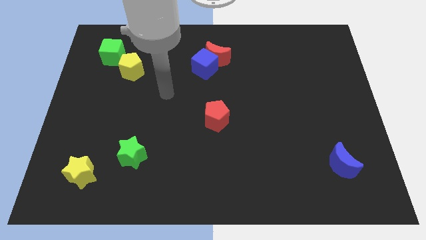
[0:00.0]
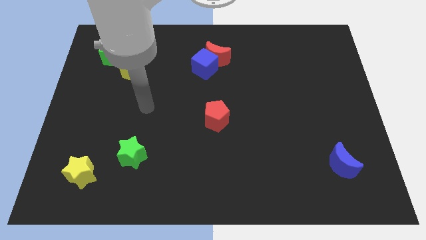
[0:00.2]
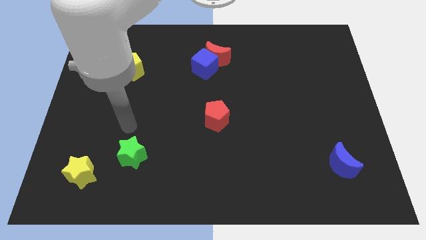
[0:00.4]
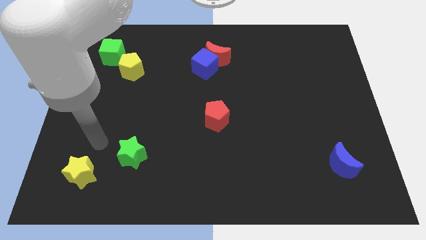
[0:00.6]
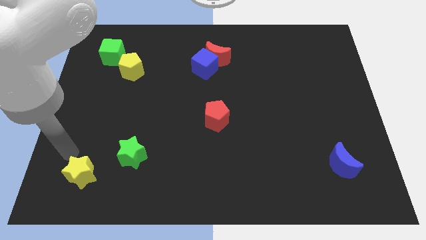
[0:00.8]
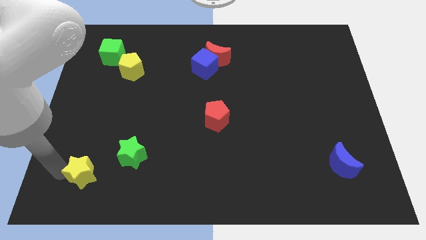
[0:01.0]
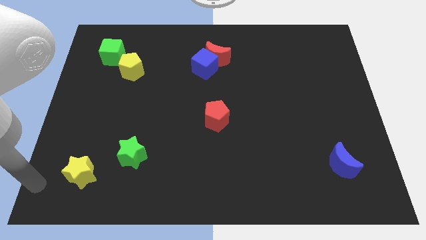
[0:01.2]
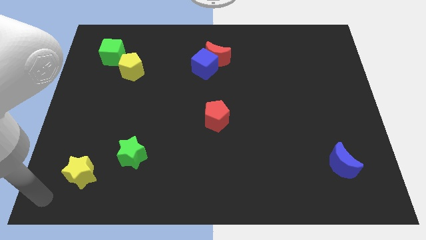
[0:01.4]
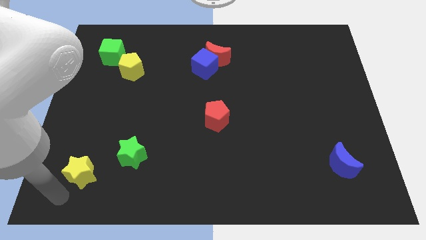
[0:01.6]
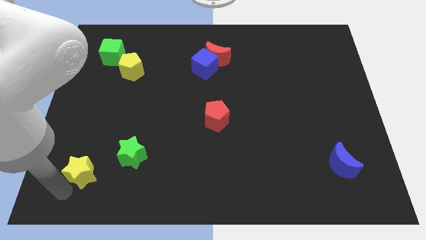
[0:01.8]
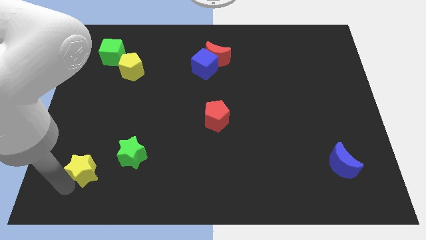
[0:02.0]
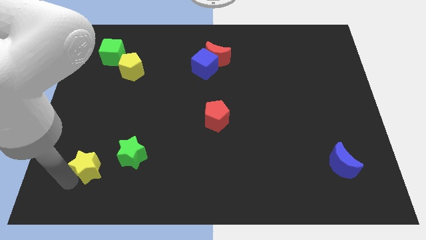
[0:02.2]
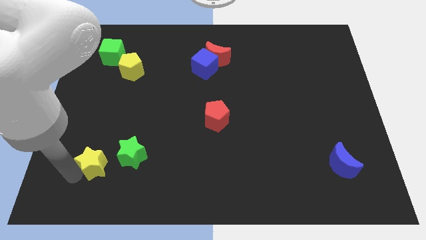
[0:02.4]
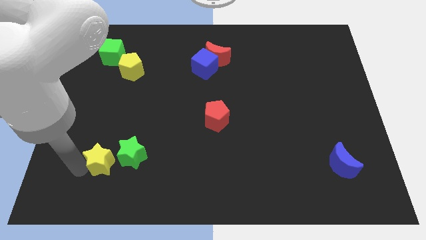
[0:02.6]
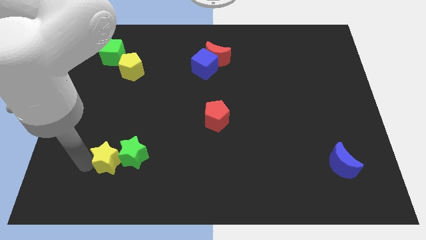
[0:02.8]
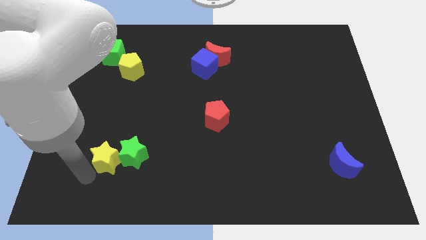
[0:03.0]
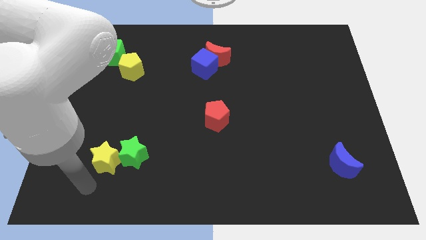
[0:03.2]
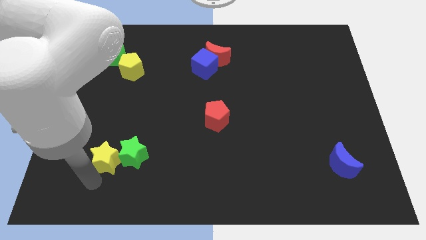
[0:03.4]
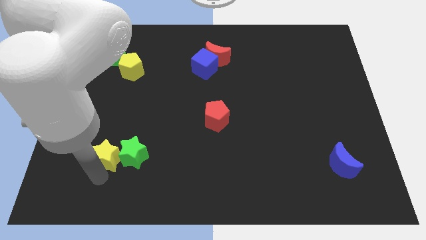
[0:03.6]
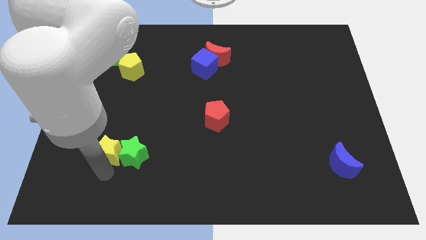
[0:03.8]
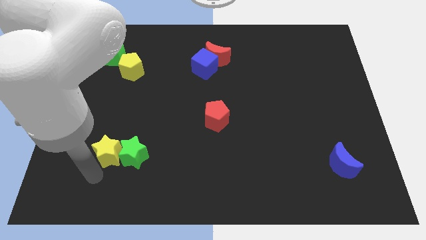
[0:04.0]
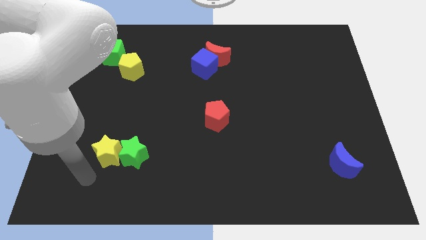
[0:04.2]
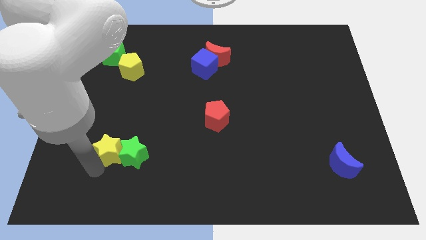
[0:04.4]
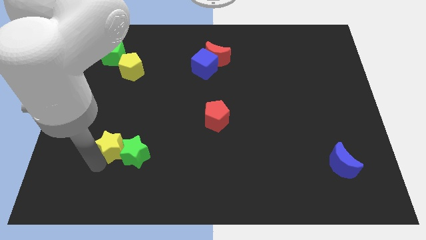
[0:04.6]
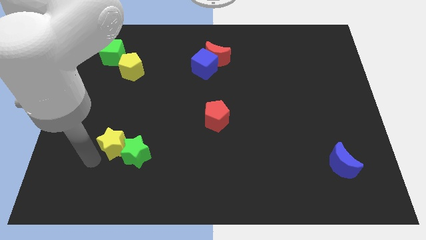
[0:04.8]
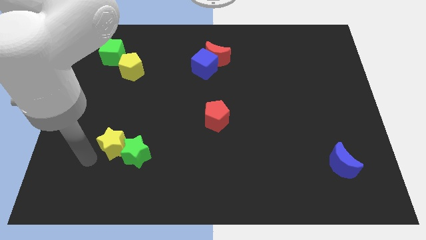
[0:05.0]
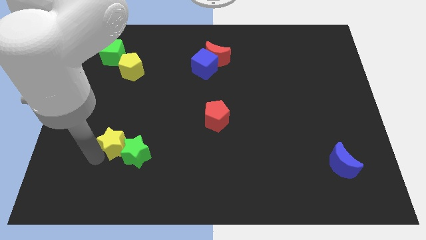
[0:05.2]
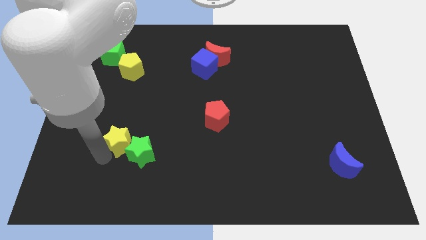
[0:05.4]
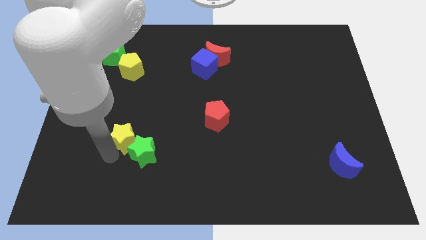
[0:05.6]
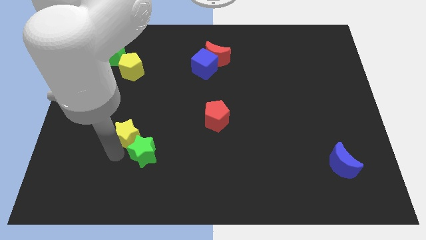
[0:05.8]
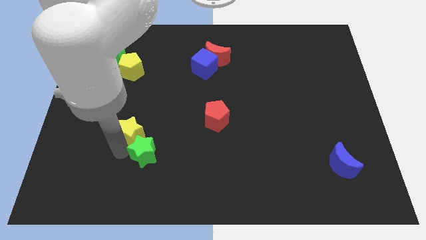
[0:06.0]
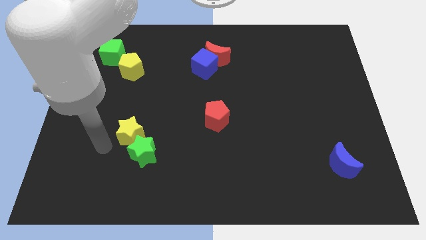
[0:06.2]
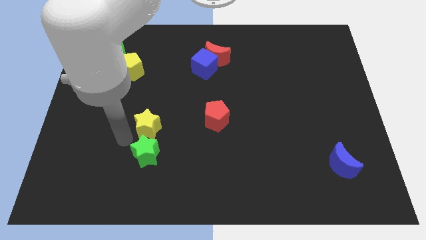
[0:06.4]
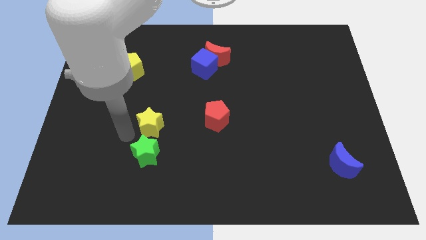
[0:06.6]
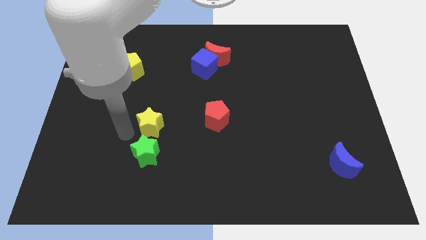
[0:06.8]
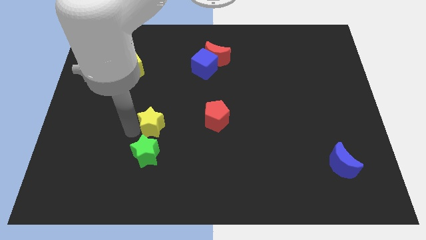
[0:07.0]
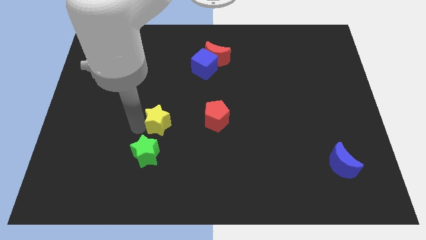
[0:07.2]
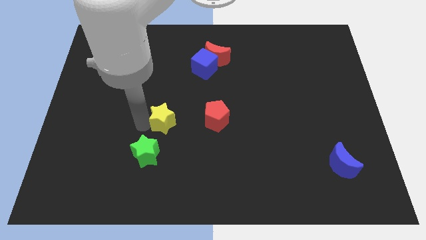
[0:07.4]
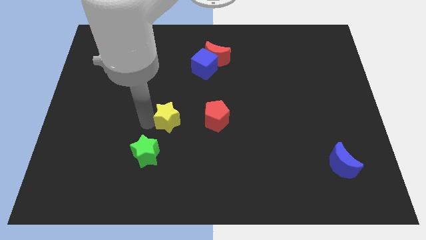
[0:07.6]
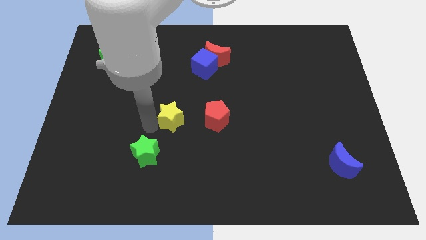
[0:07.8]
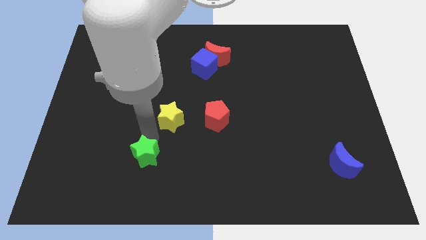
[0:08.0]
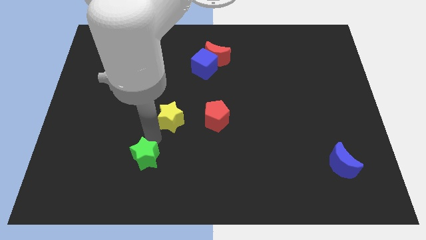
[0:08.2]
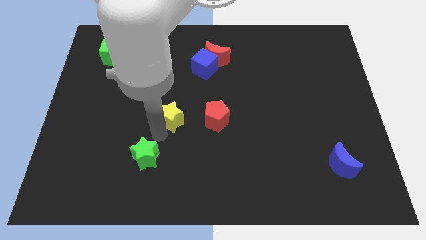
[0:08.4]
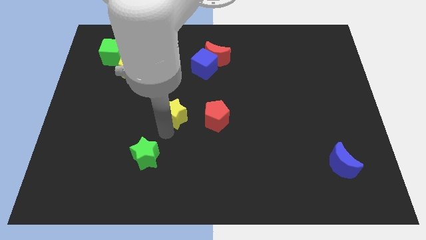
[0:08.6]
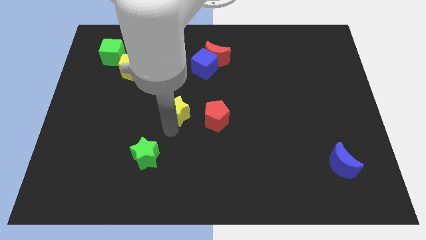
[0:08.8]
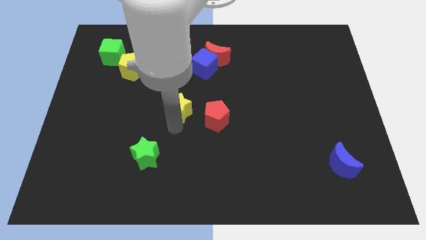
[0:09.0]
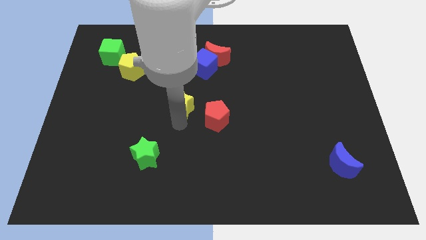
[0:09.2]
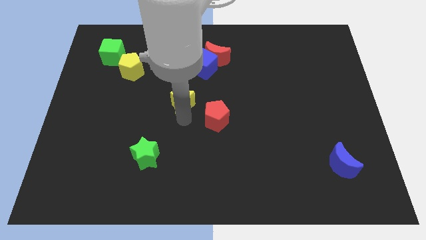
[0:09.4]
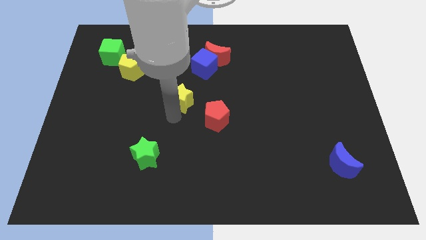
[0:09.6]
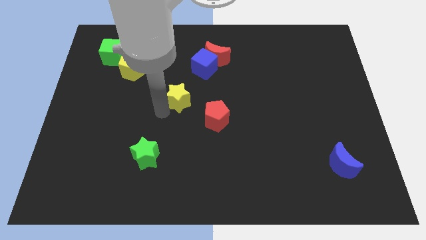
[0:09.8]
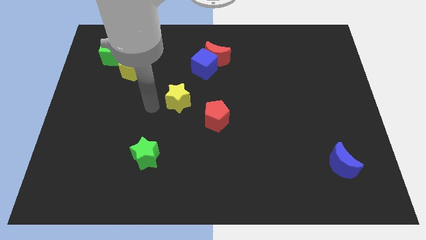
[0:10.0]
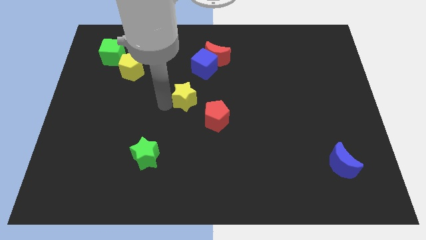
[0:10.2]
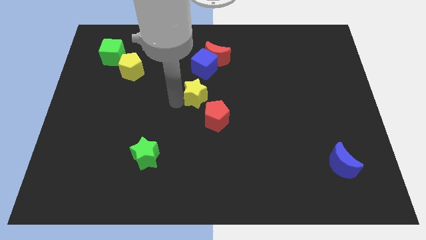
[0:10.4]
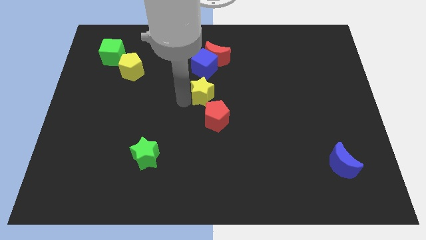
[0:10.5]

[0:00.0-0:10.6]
move the yellow star to the bottom side of the red moon

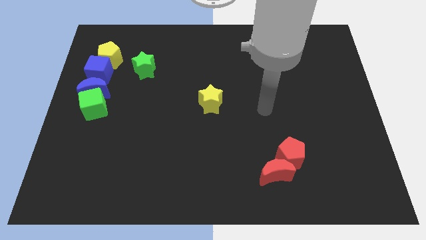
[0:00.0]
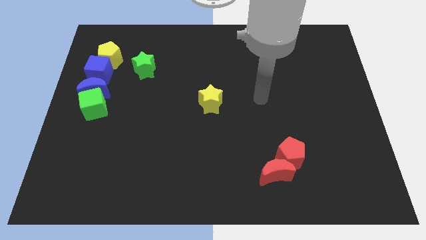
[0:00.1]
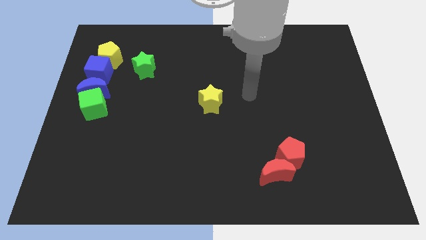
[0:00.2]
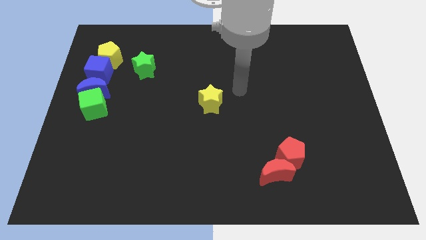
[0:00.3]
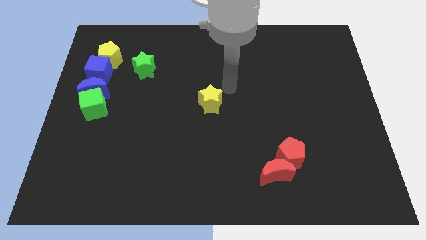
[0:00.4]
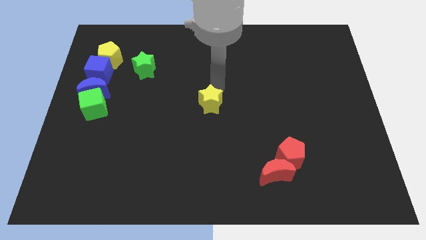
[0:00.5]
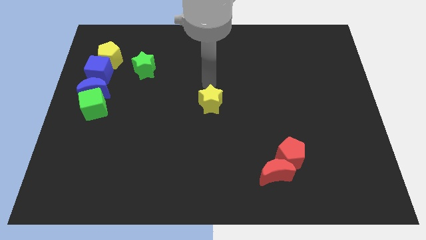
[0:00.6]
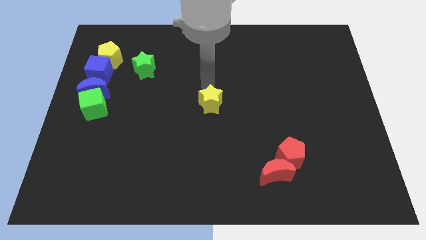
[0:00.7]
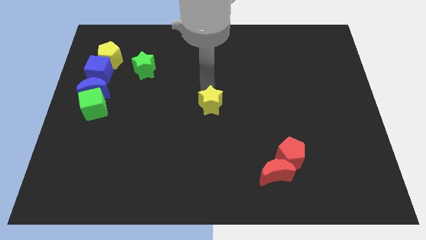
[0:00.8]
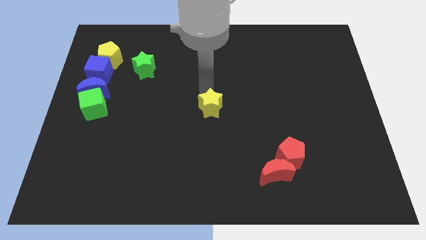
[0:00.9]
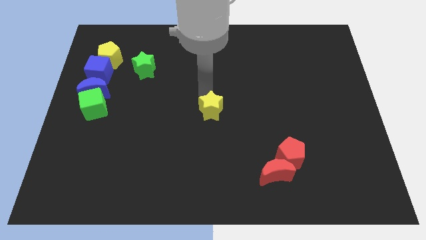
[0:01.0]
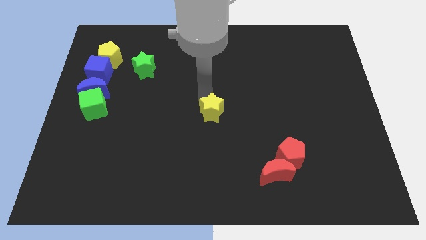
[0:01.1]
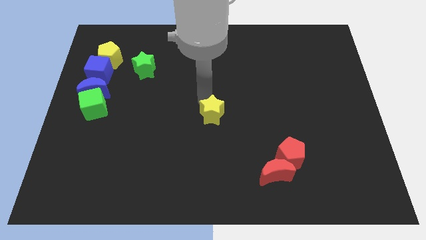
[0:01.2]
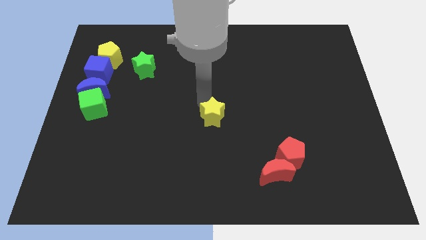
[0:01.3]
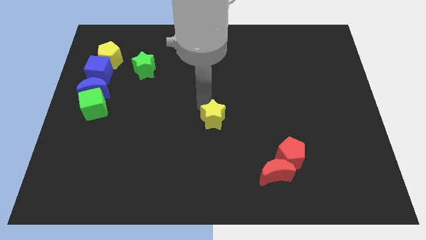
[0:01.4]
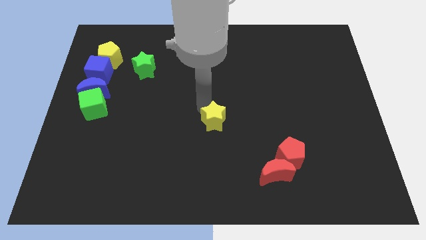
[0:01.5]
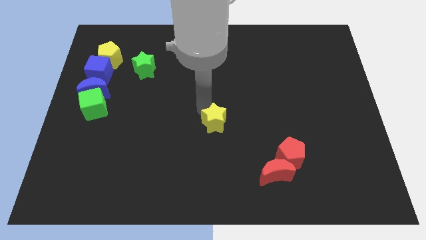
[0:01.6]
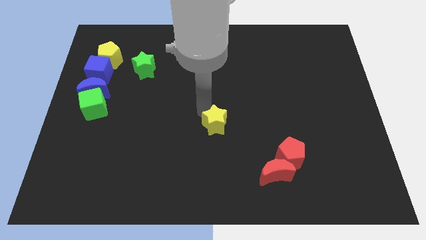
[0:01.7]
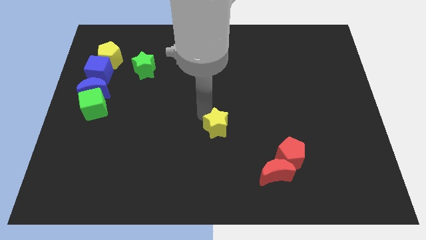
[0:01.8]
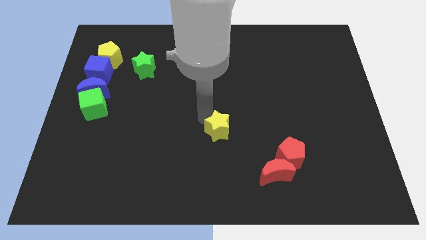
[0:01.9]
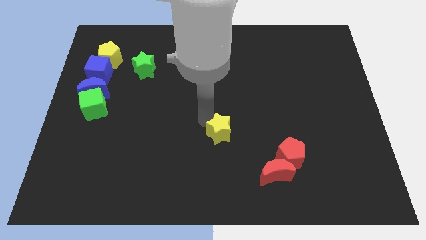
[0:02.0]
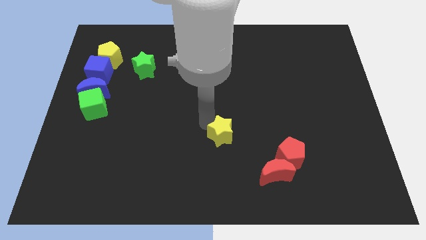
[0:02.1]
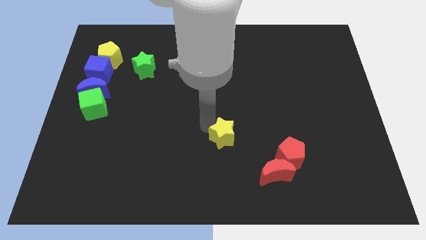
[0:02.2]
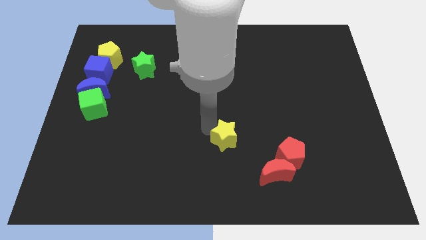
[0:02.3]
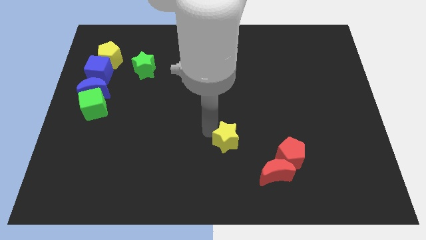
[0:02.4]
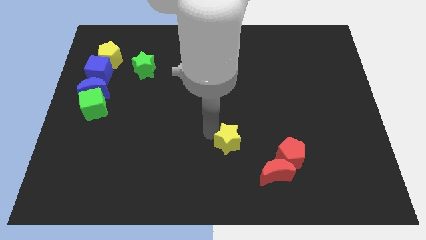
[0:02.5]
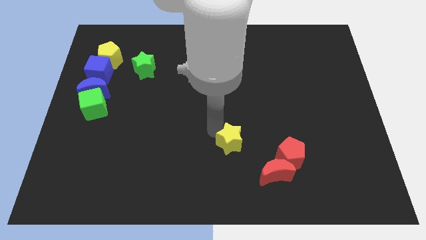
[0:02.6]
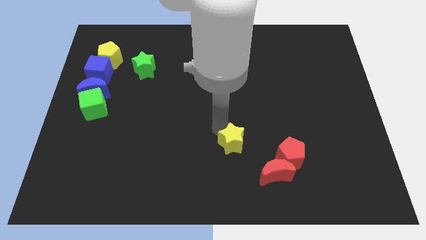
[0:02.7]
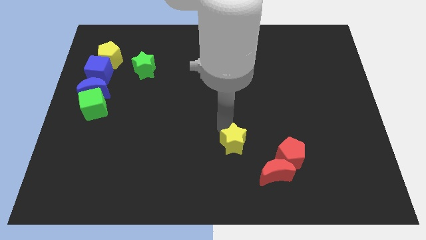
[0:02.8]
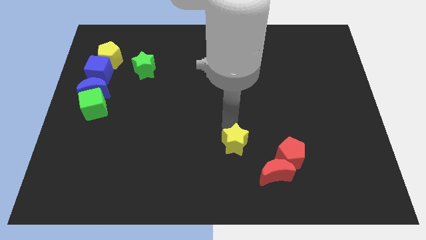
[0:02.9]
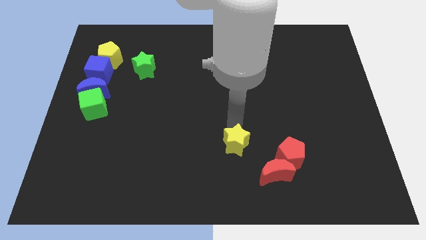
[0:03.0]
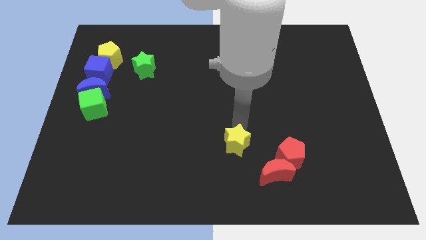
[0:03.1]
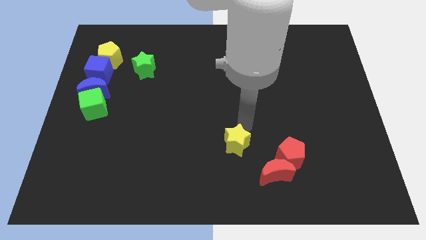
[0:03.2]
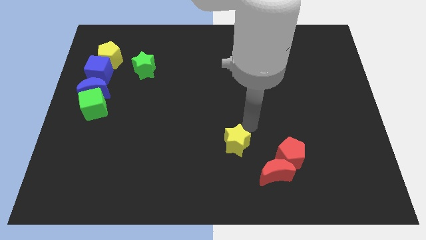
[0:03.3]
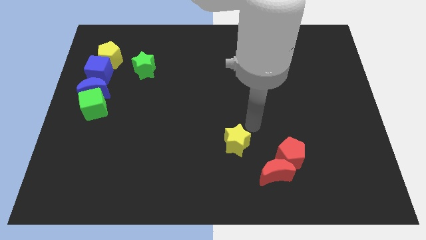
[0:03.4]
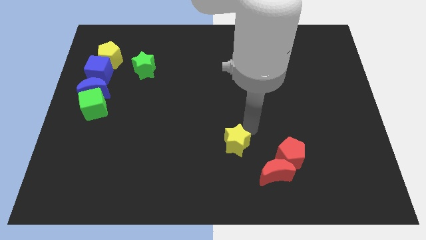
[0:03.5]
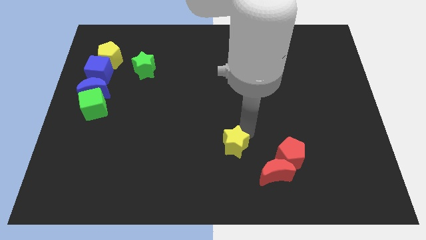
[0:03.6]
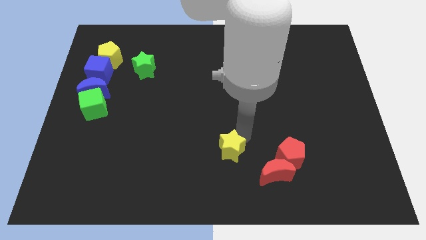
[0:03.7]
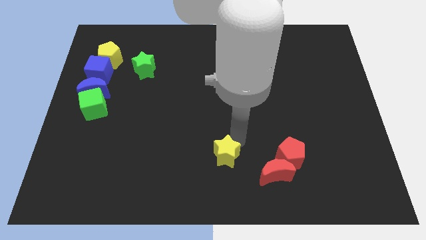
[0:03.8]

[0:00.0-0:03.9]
move the yellow star to the left of the red moon
